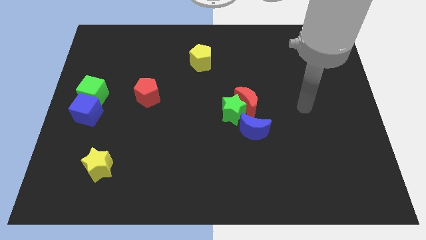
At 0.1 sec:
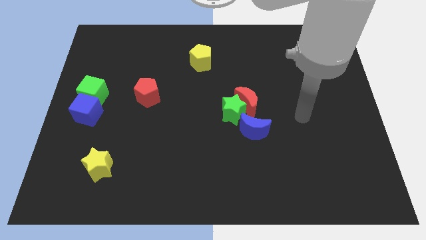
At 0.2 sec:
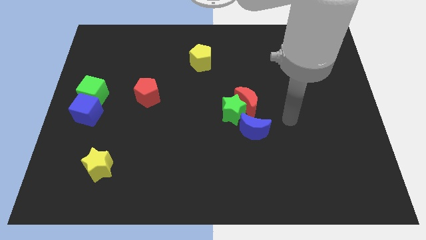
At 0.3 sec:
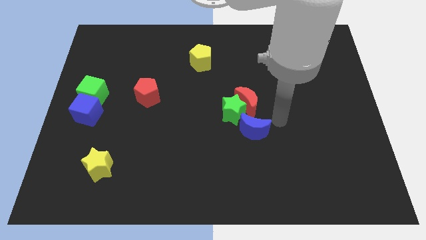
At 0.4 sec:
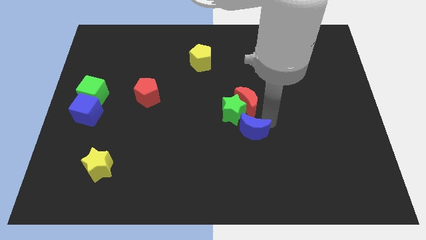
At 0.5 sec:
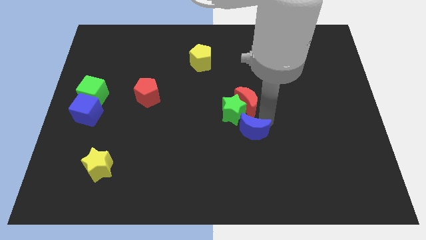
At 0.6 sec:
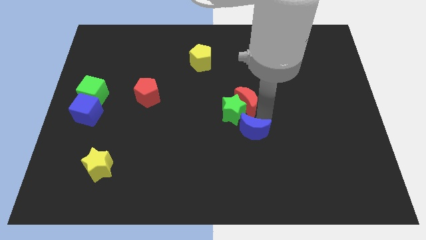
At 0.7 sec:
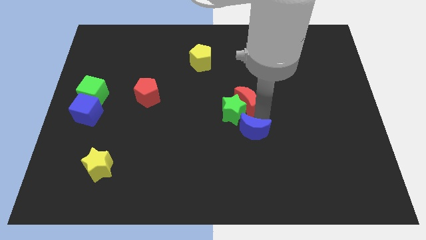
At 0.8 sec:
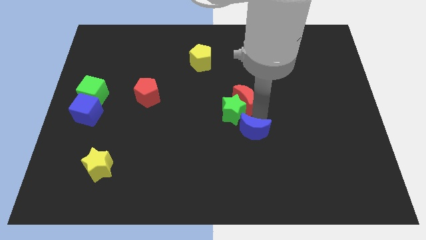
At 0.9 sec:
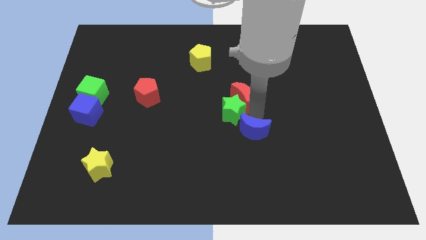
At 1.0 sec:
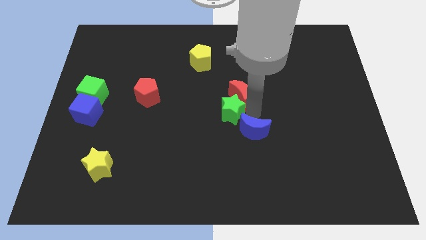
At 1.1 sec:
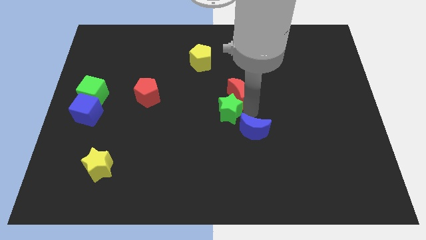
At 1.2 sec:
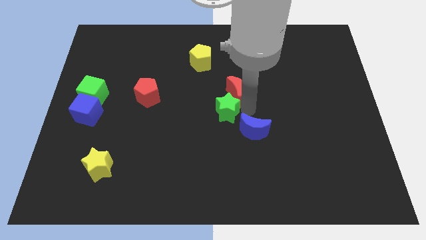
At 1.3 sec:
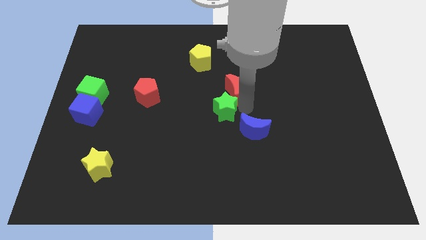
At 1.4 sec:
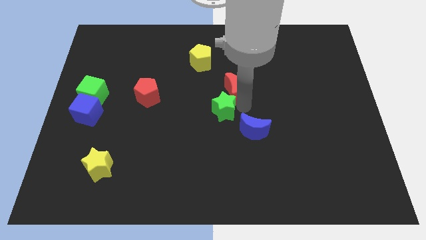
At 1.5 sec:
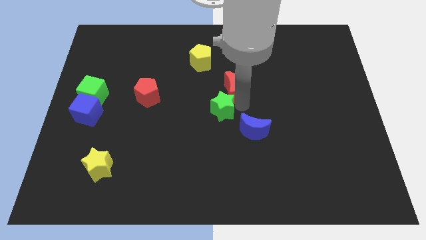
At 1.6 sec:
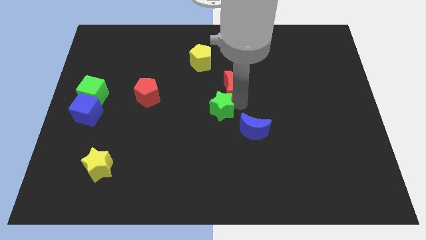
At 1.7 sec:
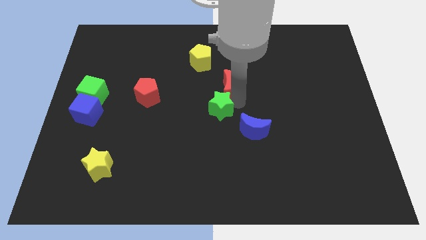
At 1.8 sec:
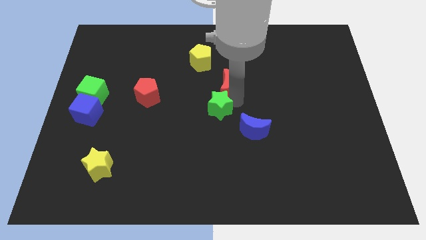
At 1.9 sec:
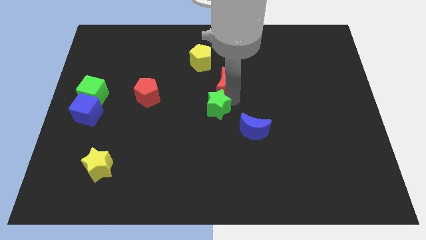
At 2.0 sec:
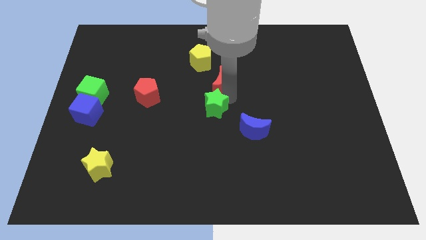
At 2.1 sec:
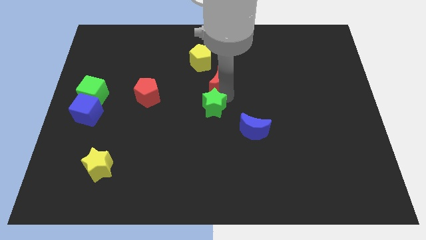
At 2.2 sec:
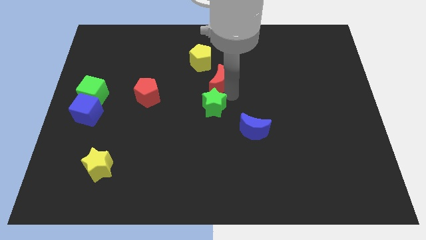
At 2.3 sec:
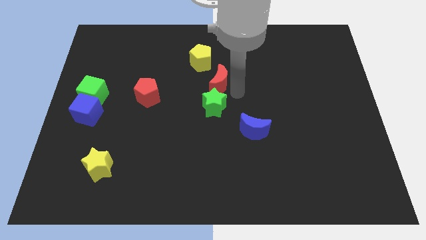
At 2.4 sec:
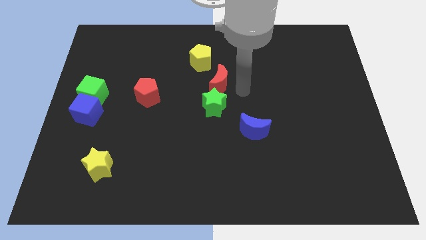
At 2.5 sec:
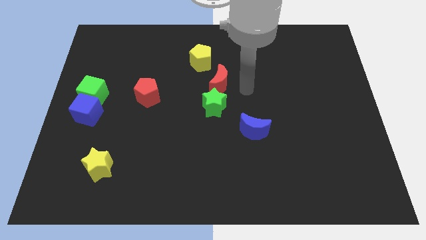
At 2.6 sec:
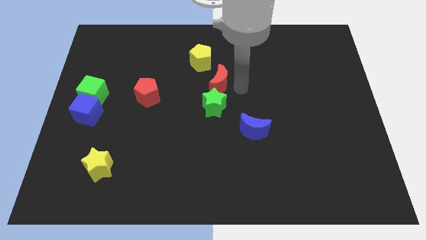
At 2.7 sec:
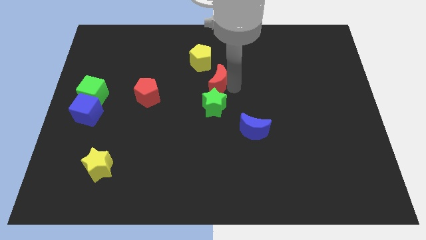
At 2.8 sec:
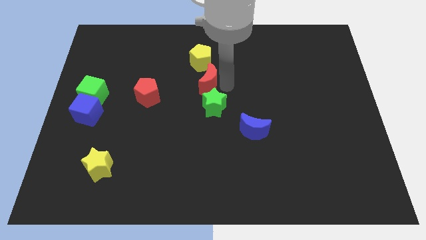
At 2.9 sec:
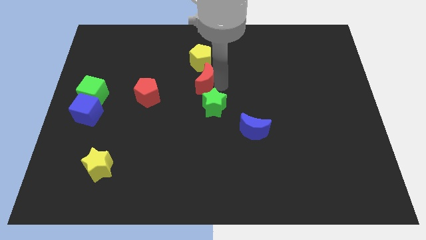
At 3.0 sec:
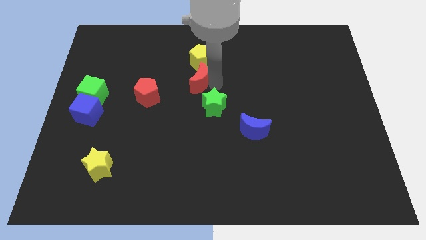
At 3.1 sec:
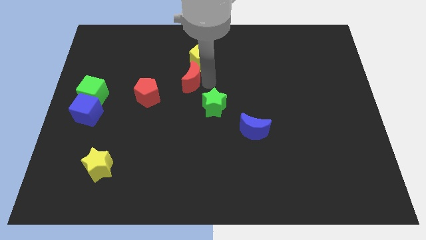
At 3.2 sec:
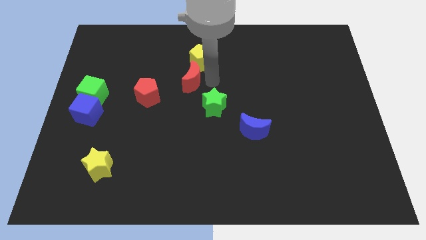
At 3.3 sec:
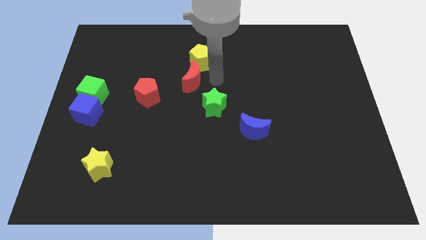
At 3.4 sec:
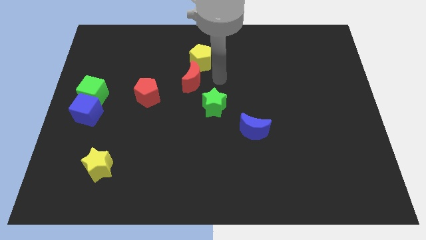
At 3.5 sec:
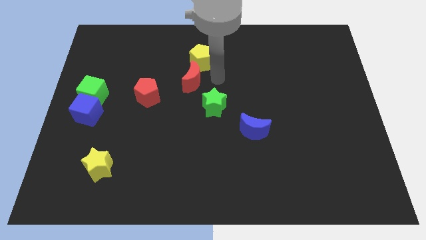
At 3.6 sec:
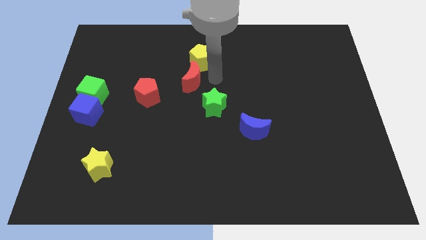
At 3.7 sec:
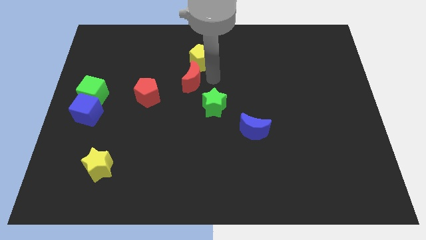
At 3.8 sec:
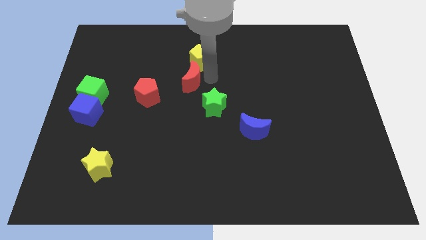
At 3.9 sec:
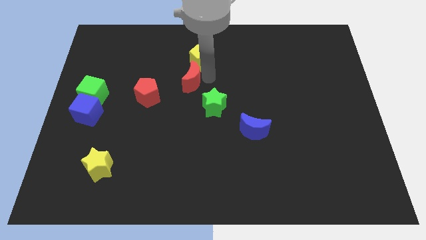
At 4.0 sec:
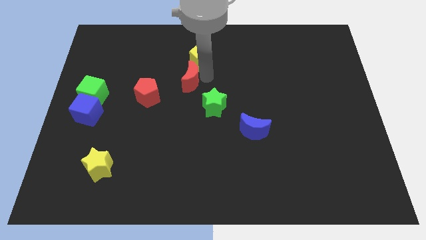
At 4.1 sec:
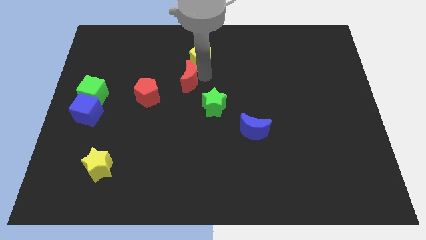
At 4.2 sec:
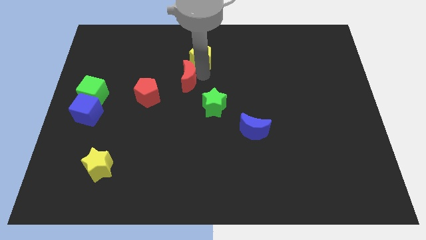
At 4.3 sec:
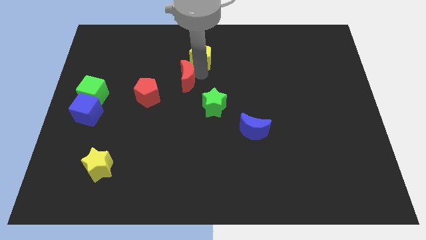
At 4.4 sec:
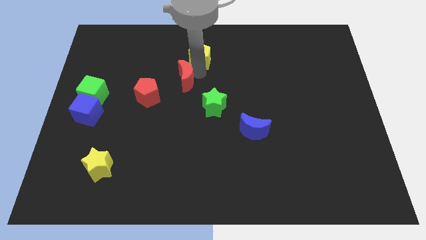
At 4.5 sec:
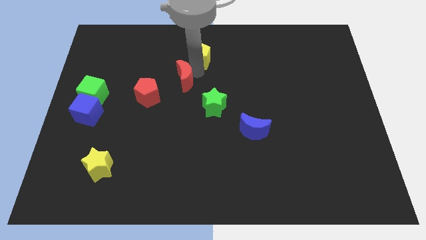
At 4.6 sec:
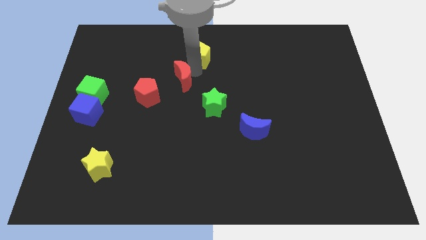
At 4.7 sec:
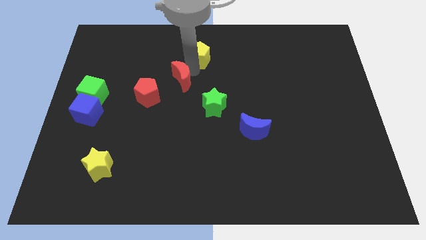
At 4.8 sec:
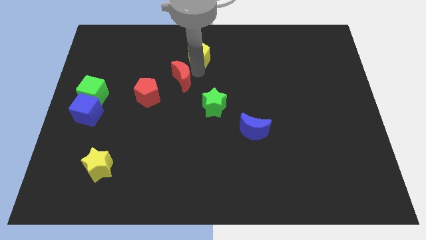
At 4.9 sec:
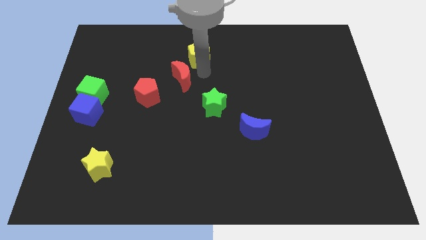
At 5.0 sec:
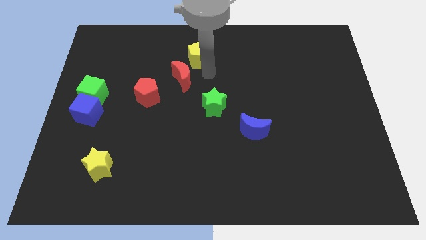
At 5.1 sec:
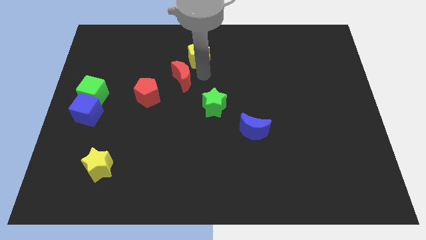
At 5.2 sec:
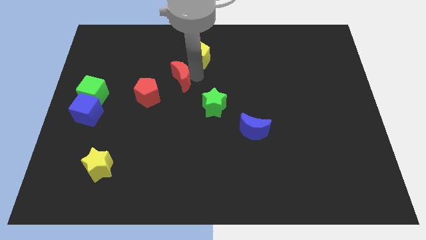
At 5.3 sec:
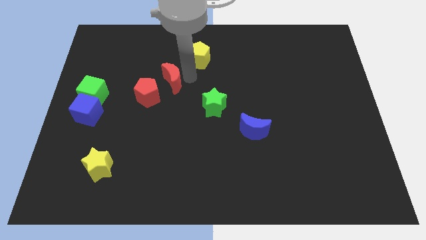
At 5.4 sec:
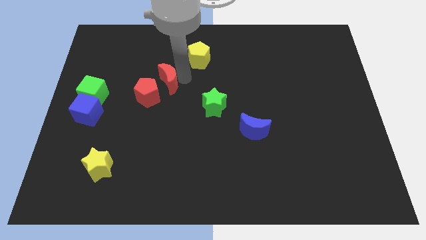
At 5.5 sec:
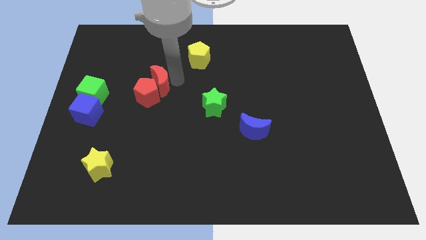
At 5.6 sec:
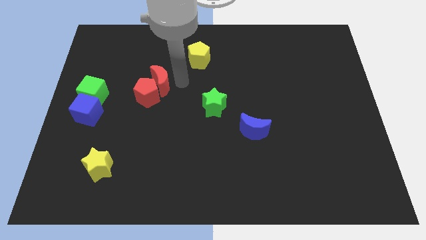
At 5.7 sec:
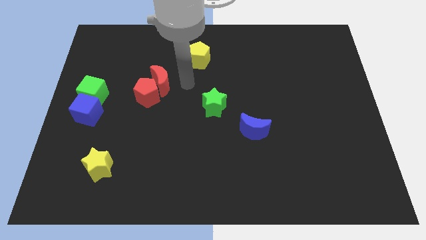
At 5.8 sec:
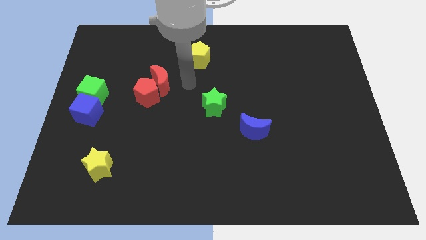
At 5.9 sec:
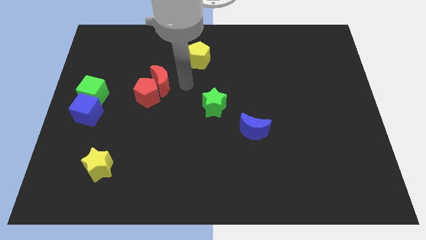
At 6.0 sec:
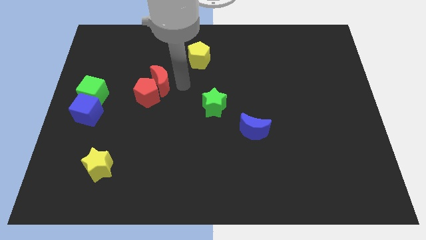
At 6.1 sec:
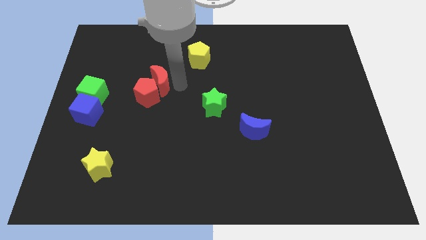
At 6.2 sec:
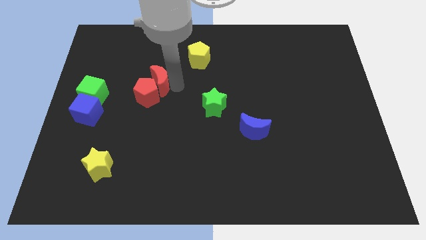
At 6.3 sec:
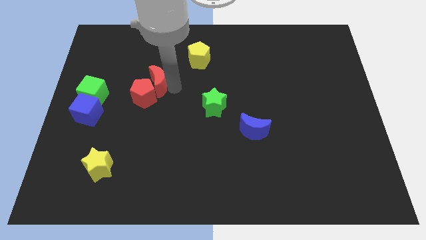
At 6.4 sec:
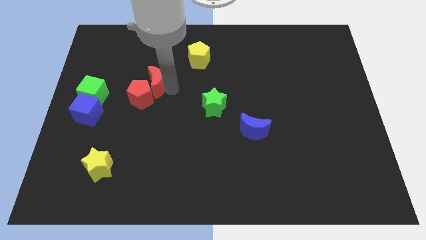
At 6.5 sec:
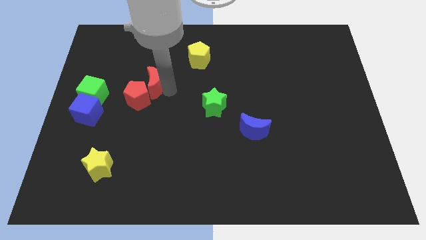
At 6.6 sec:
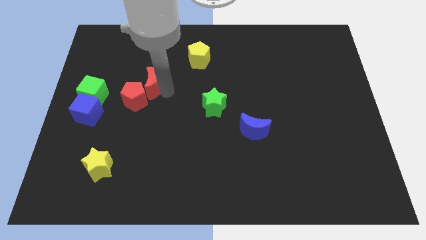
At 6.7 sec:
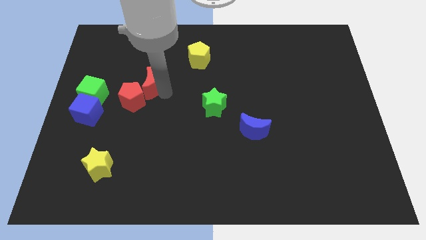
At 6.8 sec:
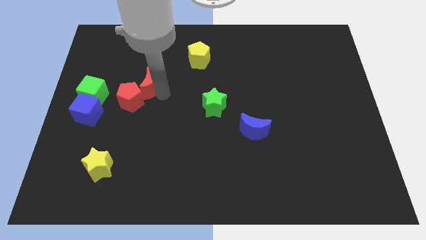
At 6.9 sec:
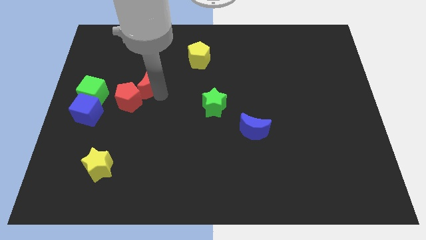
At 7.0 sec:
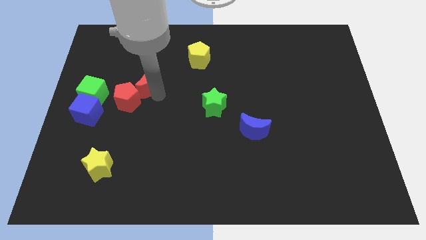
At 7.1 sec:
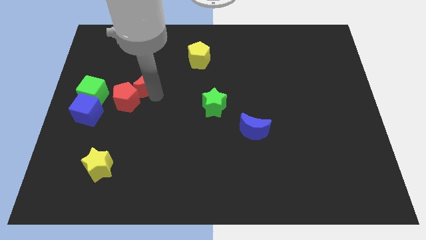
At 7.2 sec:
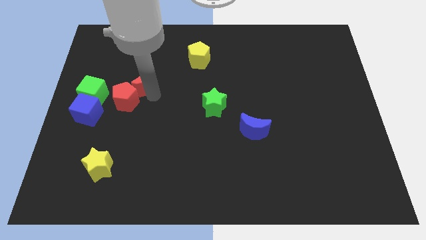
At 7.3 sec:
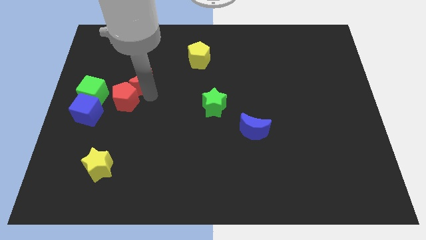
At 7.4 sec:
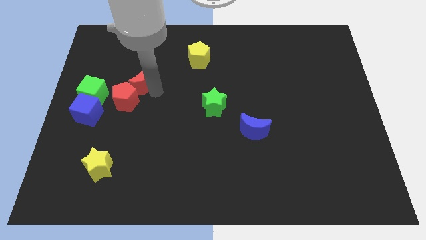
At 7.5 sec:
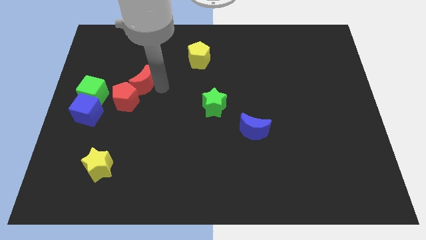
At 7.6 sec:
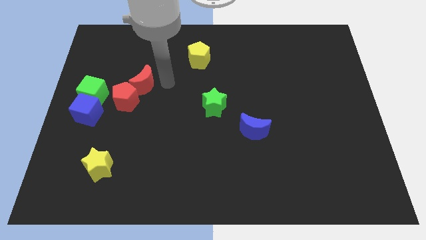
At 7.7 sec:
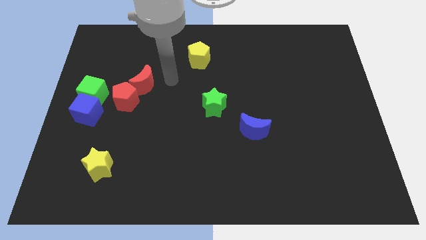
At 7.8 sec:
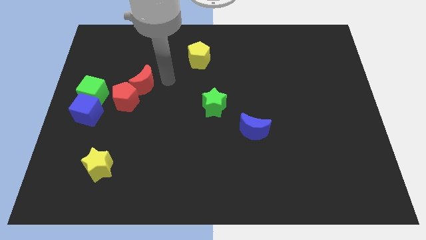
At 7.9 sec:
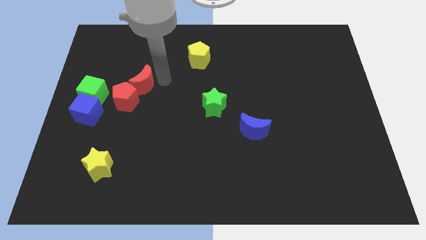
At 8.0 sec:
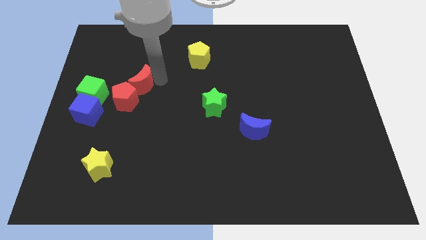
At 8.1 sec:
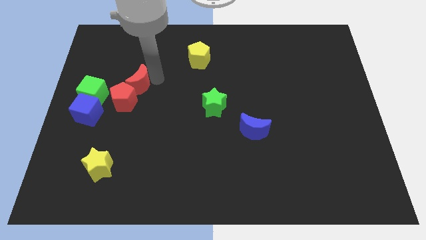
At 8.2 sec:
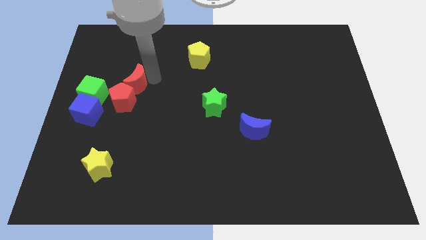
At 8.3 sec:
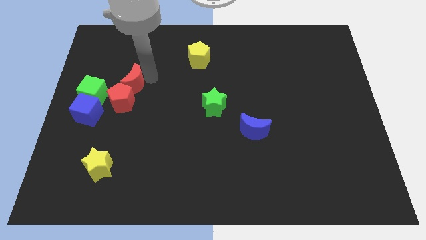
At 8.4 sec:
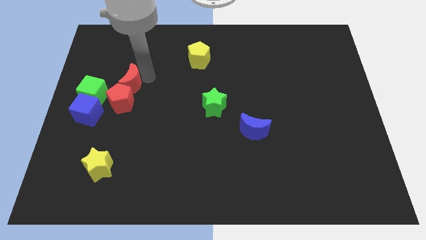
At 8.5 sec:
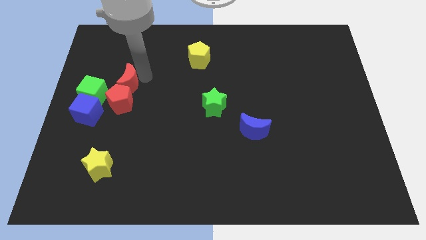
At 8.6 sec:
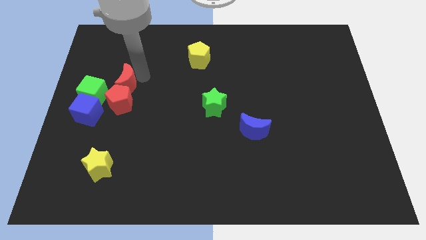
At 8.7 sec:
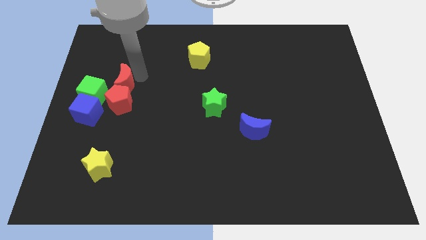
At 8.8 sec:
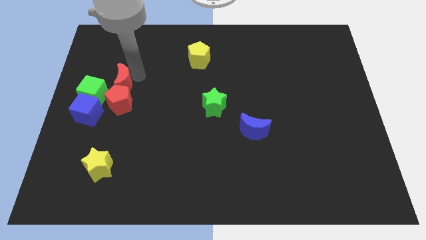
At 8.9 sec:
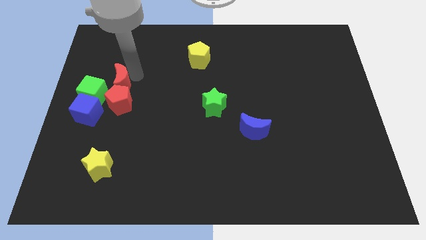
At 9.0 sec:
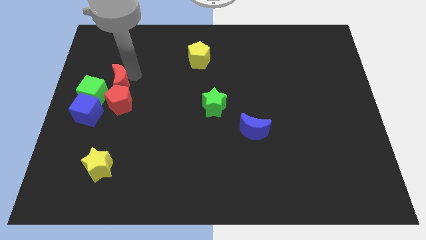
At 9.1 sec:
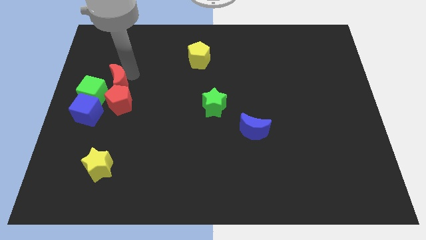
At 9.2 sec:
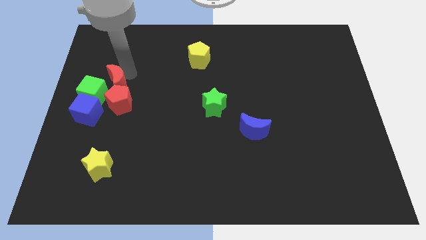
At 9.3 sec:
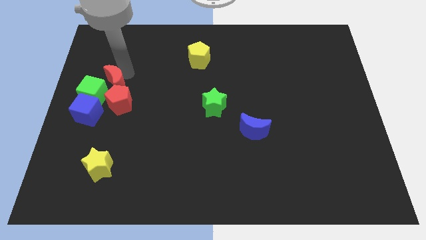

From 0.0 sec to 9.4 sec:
push the red moon to the green cube
